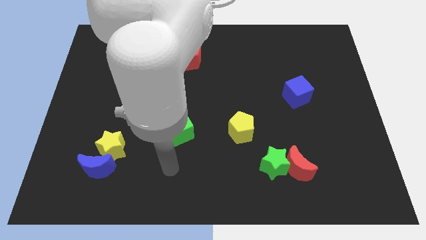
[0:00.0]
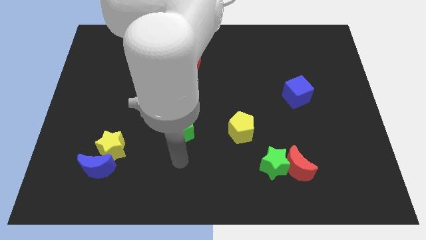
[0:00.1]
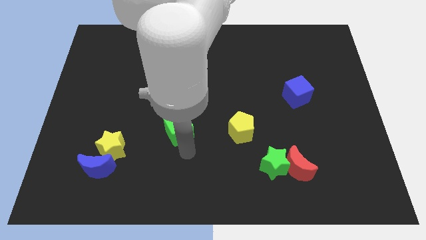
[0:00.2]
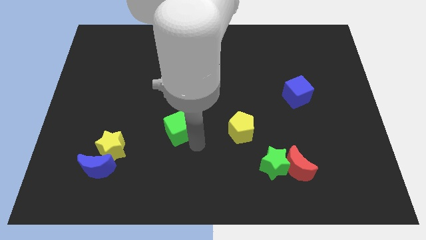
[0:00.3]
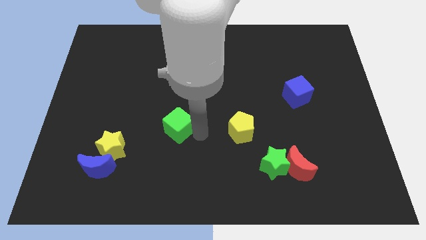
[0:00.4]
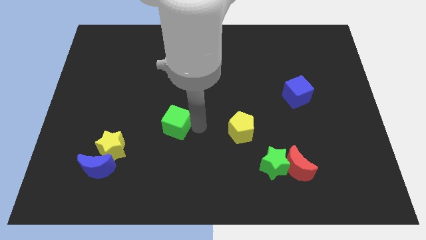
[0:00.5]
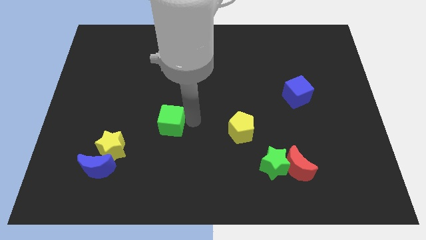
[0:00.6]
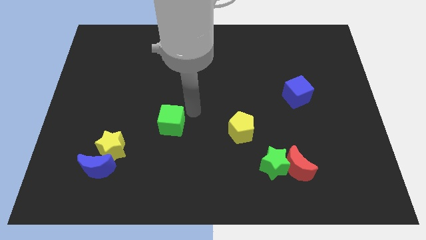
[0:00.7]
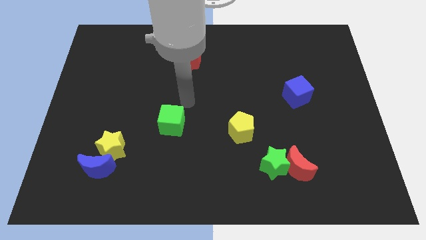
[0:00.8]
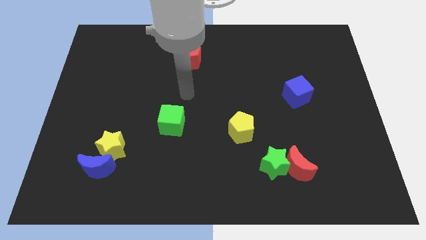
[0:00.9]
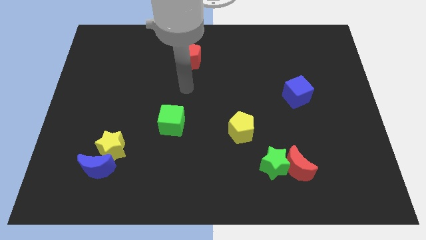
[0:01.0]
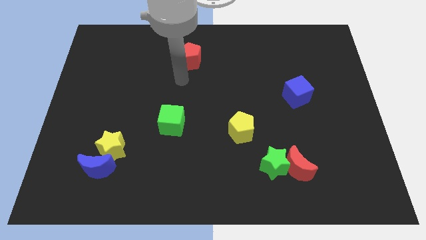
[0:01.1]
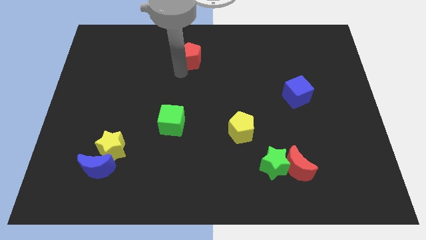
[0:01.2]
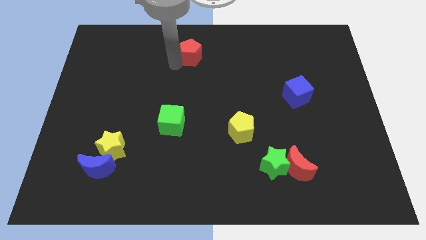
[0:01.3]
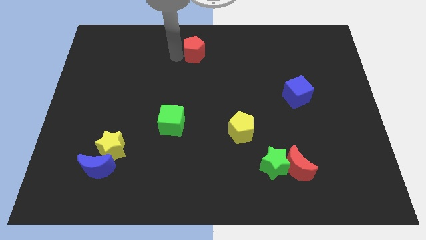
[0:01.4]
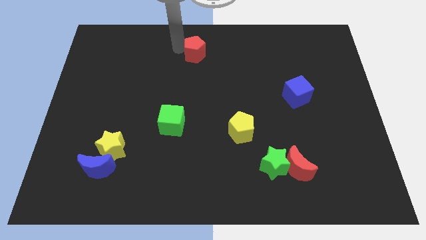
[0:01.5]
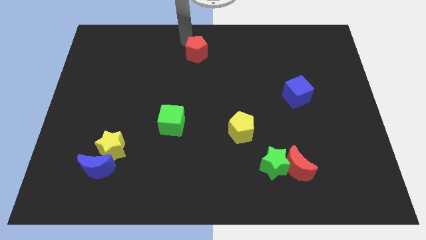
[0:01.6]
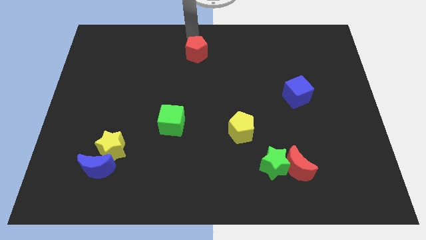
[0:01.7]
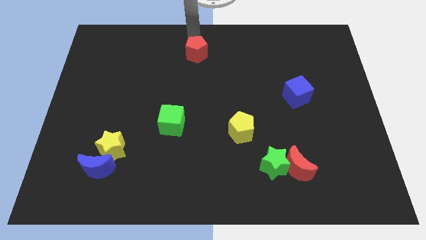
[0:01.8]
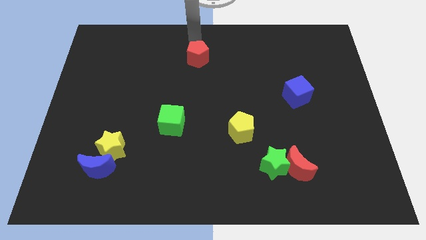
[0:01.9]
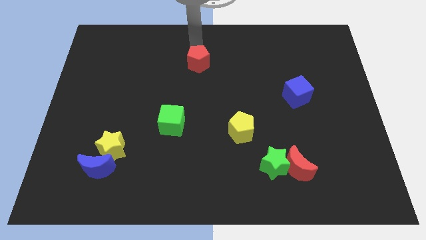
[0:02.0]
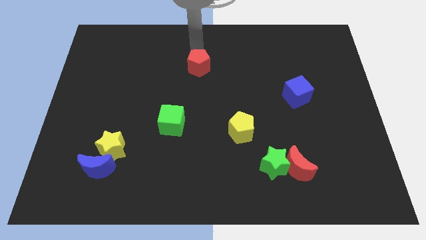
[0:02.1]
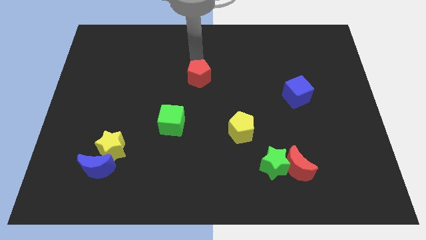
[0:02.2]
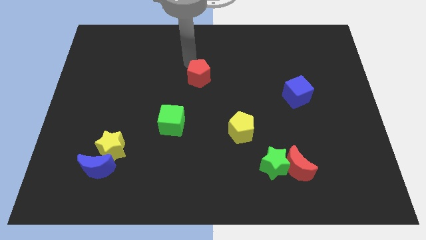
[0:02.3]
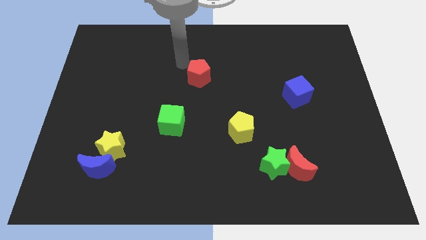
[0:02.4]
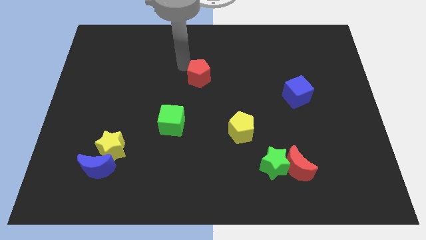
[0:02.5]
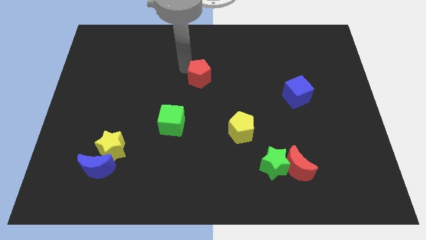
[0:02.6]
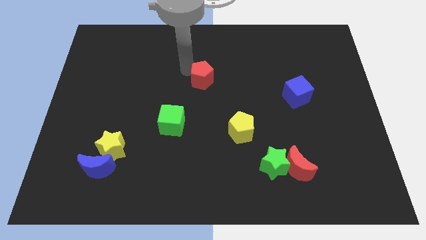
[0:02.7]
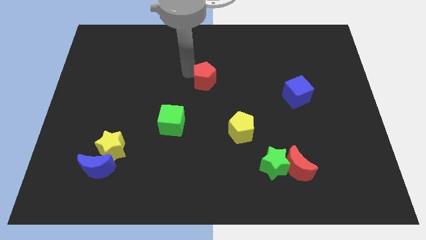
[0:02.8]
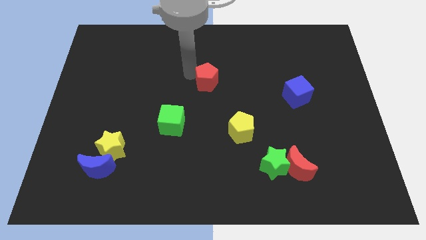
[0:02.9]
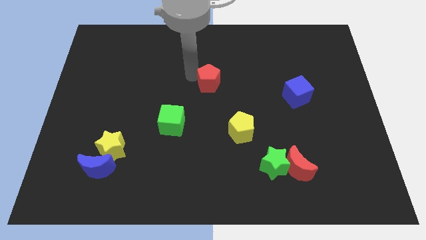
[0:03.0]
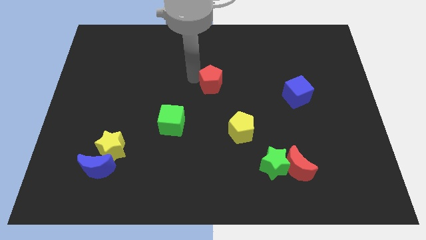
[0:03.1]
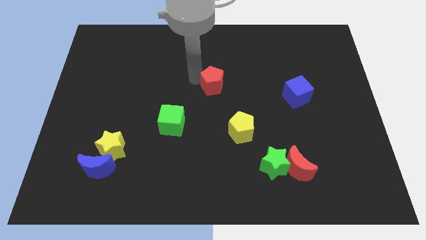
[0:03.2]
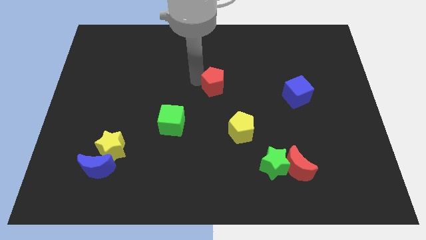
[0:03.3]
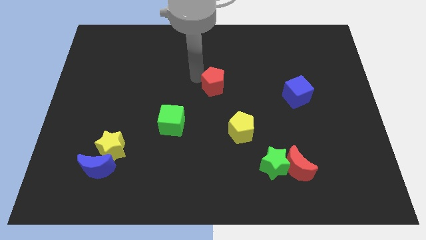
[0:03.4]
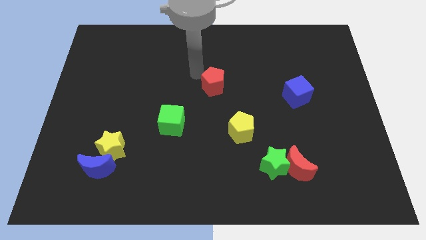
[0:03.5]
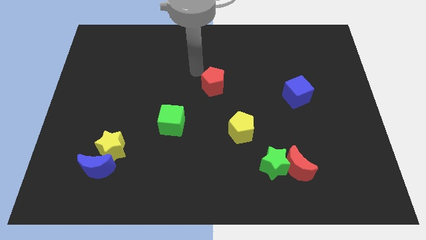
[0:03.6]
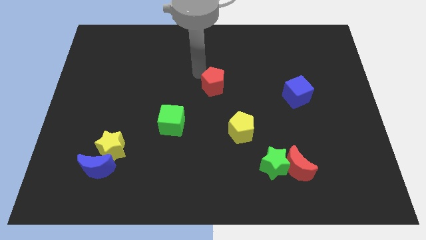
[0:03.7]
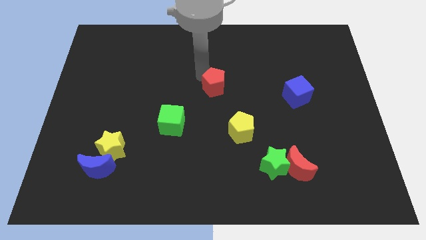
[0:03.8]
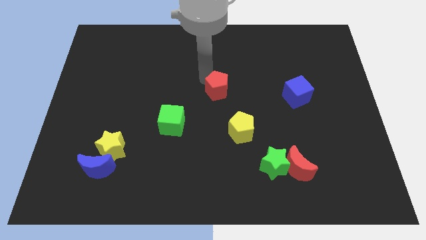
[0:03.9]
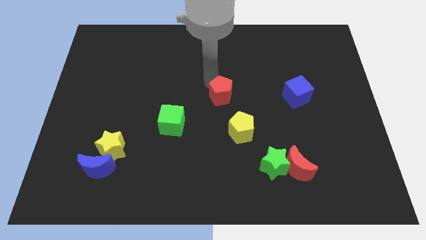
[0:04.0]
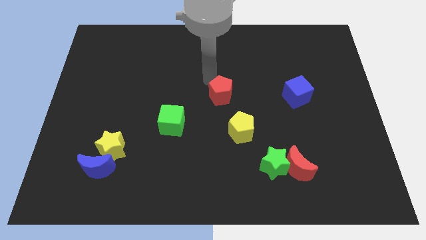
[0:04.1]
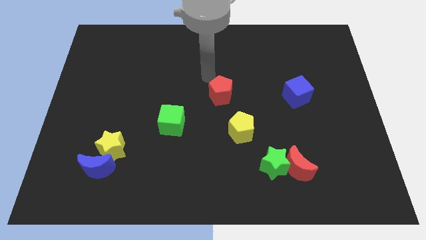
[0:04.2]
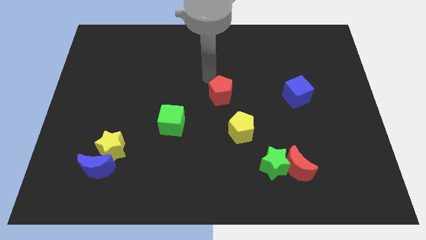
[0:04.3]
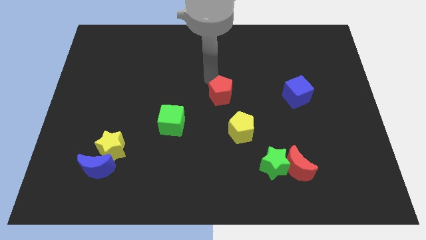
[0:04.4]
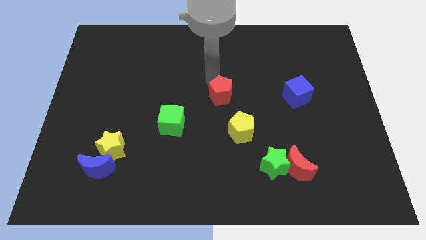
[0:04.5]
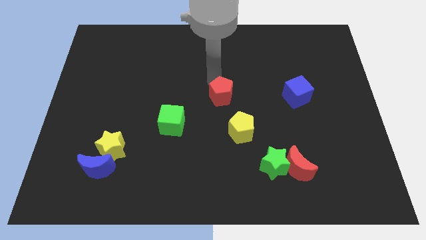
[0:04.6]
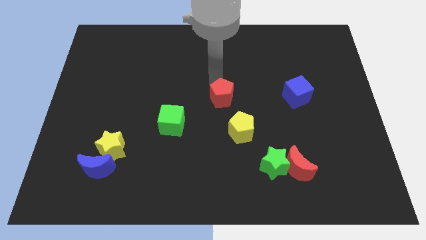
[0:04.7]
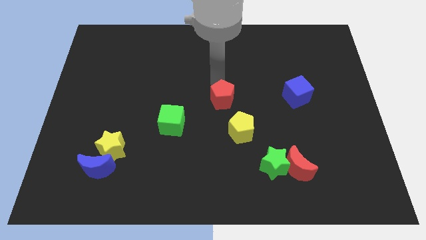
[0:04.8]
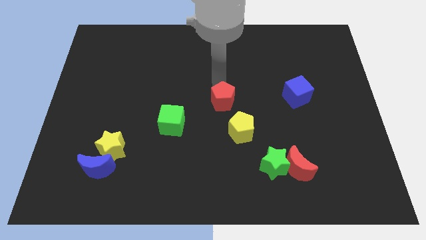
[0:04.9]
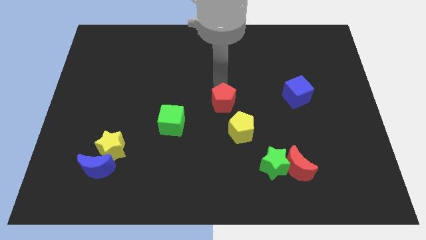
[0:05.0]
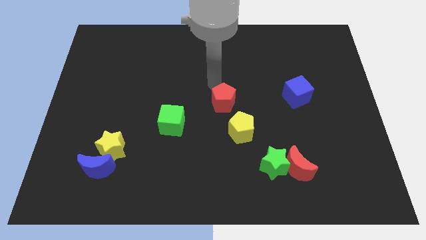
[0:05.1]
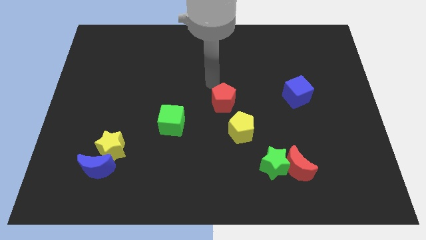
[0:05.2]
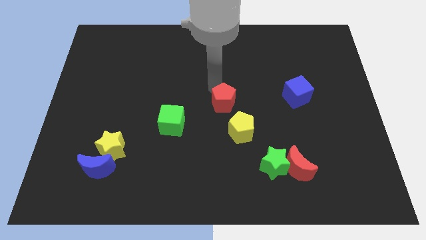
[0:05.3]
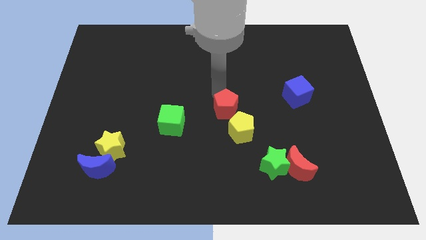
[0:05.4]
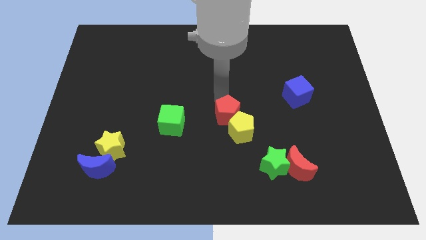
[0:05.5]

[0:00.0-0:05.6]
move the red pentagon close to the yellow pentagon

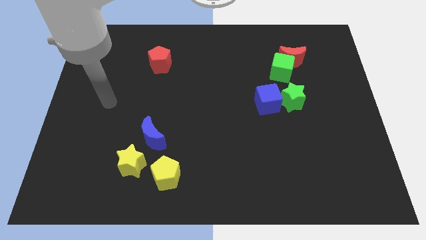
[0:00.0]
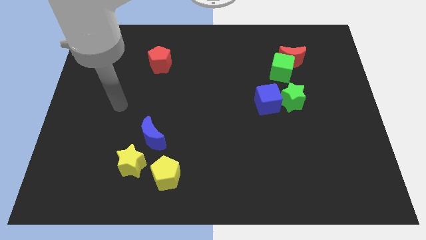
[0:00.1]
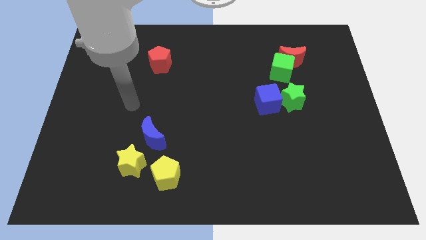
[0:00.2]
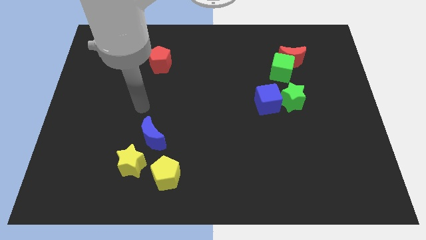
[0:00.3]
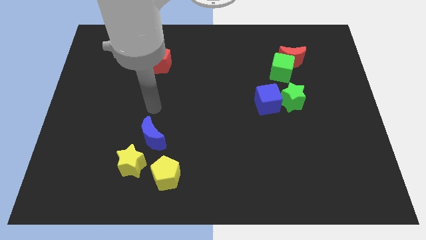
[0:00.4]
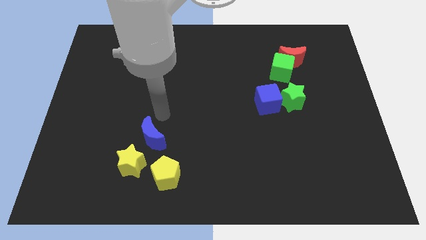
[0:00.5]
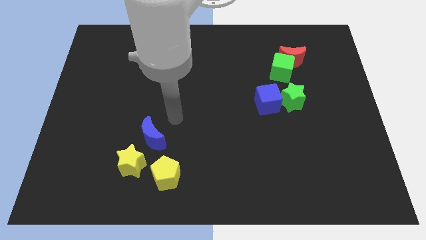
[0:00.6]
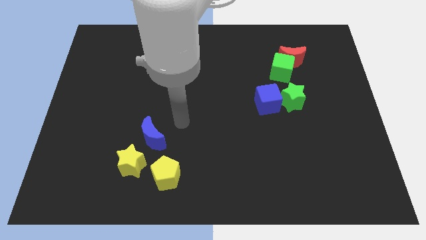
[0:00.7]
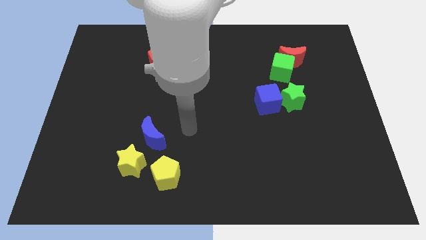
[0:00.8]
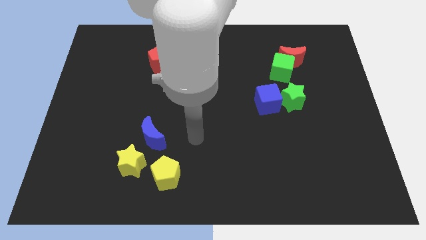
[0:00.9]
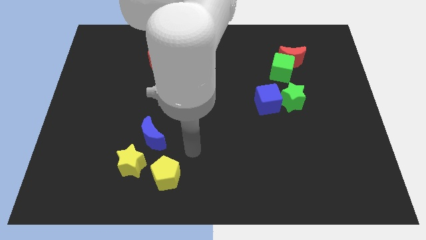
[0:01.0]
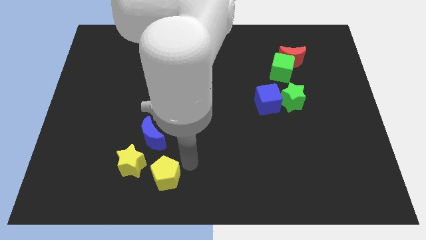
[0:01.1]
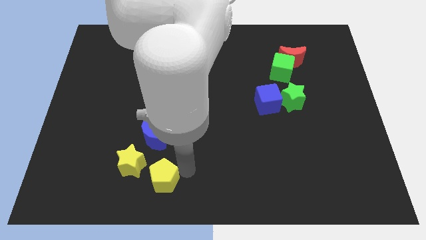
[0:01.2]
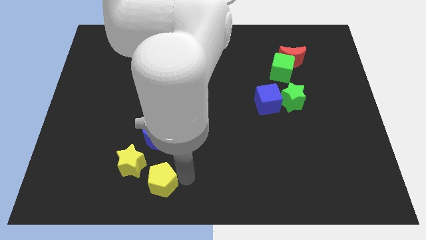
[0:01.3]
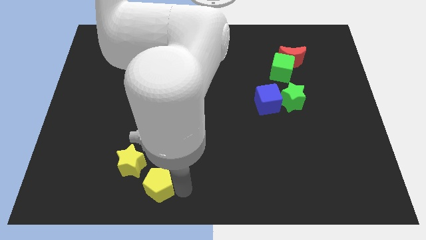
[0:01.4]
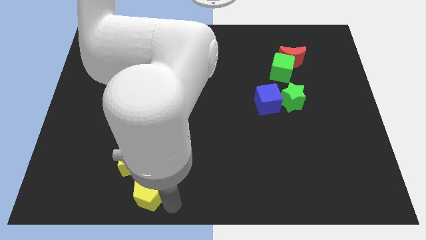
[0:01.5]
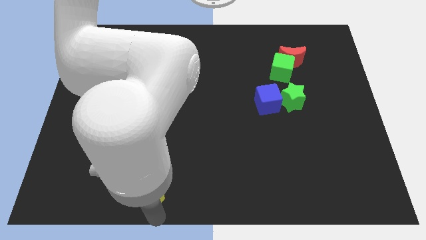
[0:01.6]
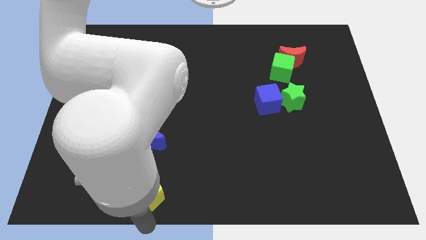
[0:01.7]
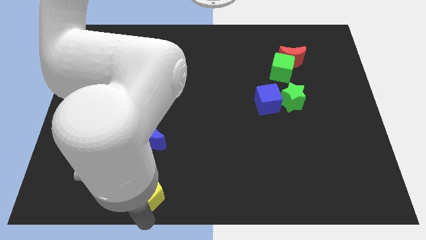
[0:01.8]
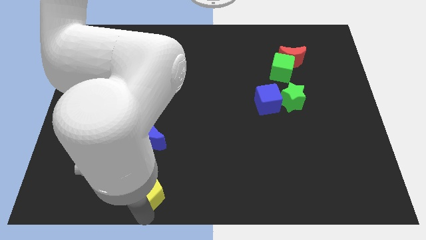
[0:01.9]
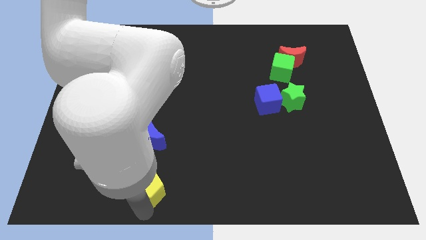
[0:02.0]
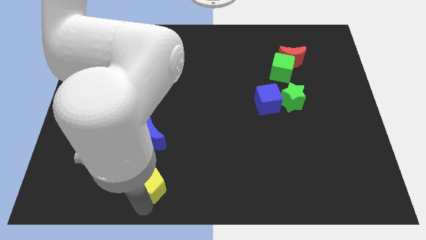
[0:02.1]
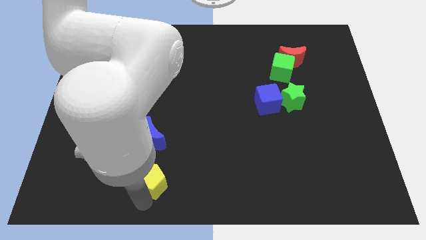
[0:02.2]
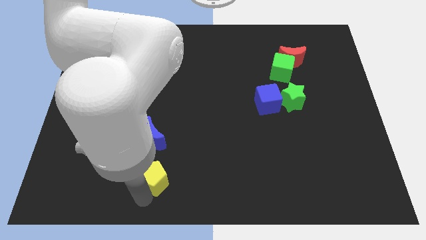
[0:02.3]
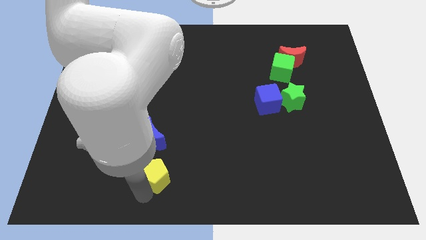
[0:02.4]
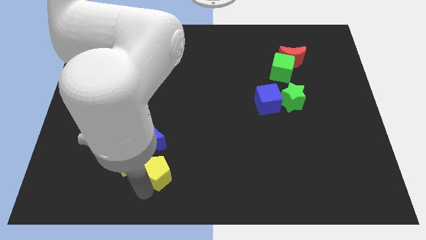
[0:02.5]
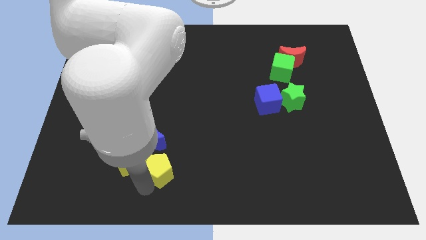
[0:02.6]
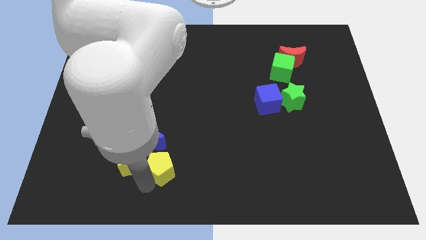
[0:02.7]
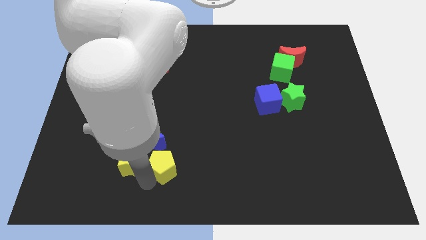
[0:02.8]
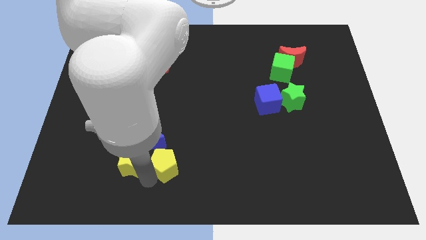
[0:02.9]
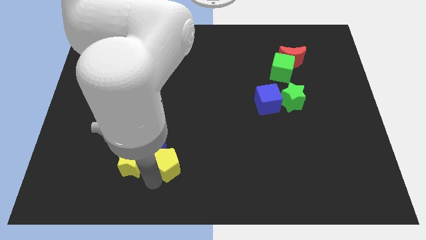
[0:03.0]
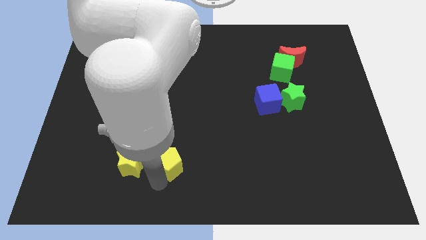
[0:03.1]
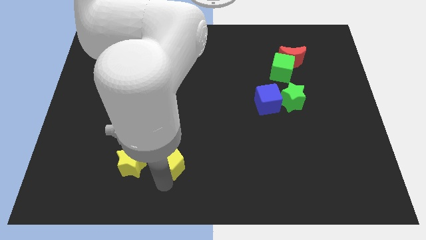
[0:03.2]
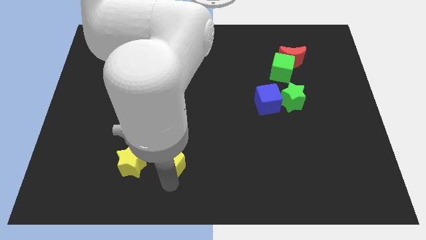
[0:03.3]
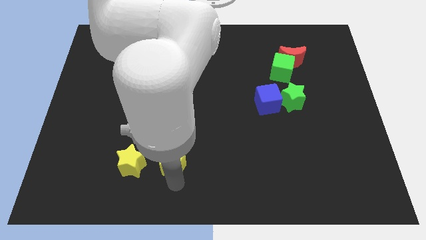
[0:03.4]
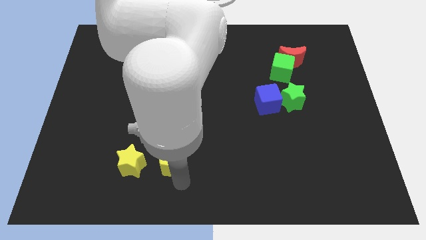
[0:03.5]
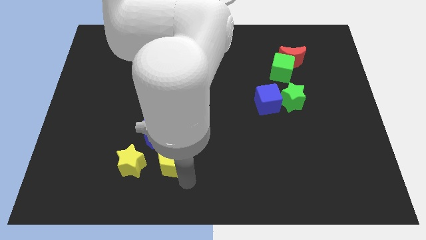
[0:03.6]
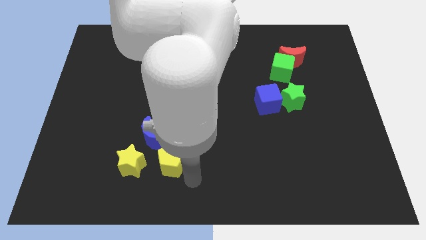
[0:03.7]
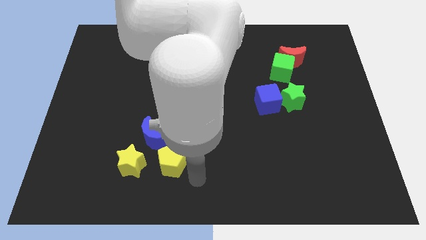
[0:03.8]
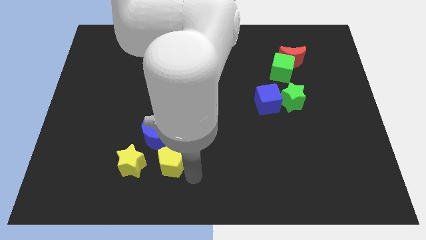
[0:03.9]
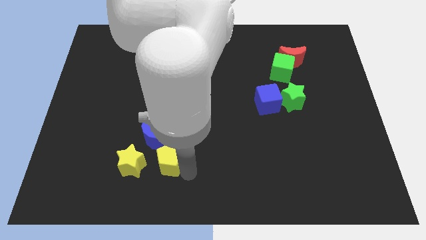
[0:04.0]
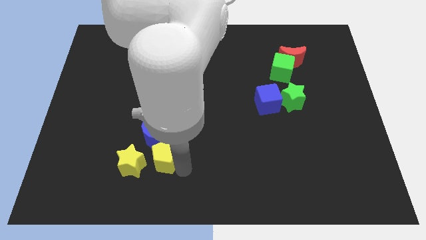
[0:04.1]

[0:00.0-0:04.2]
put the yellow pentagon to the blue moon
